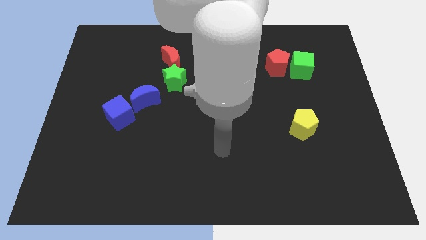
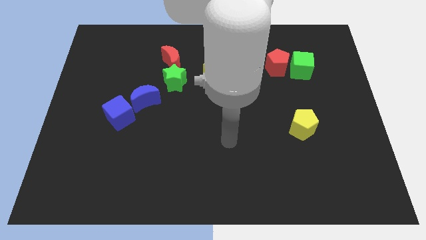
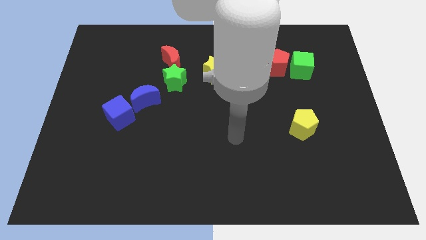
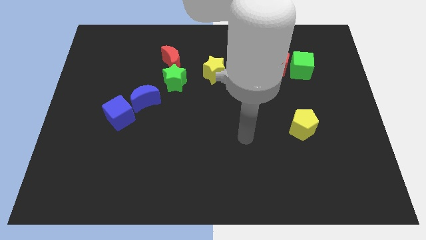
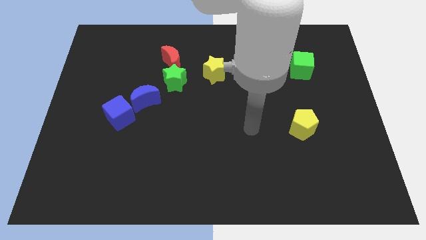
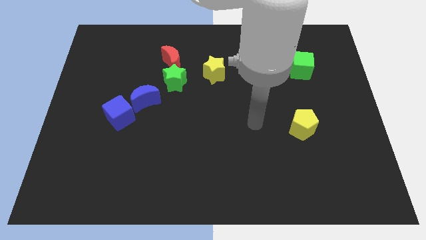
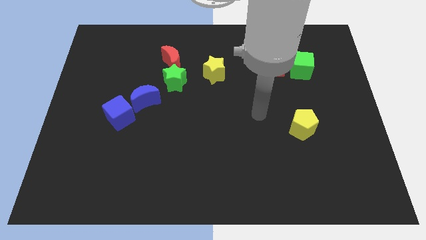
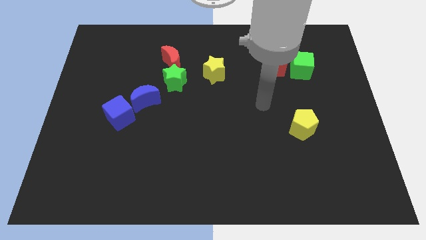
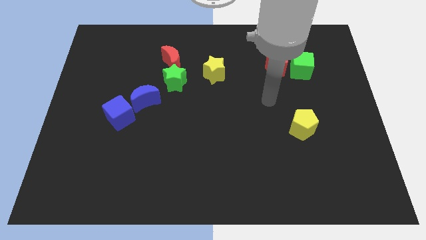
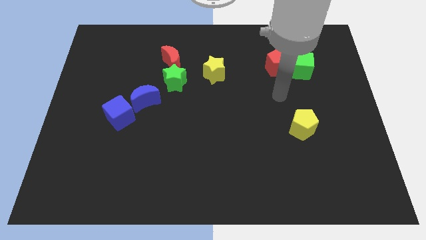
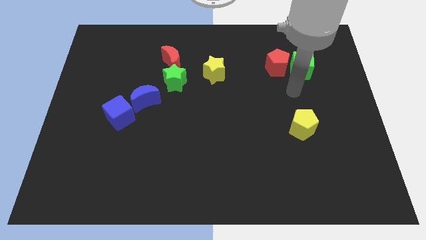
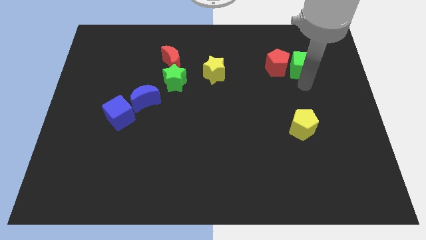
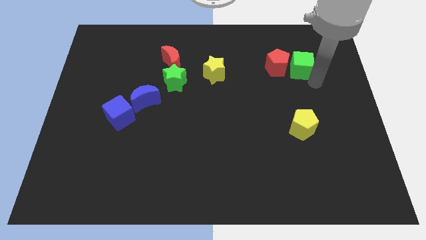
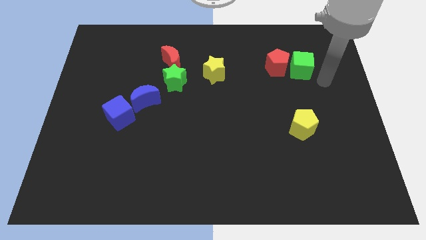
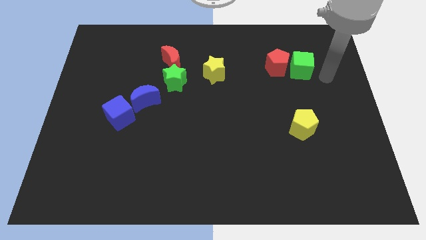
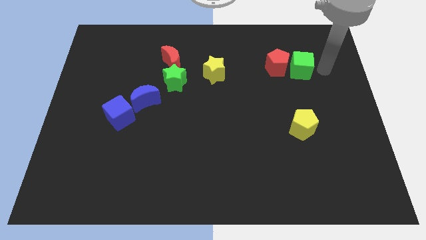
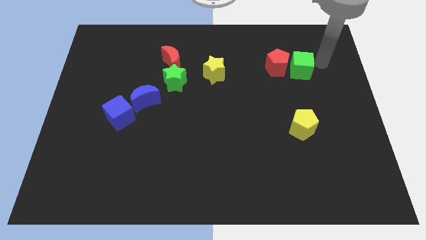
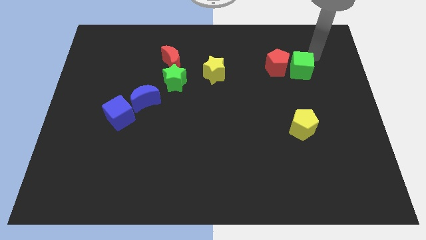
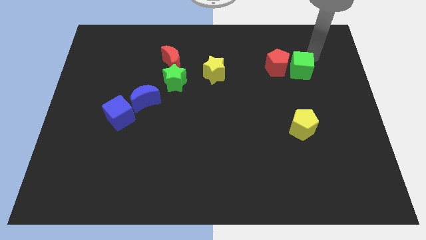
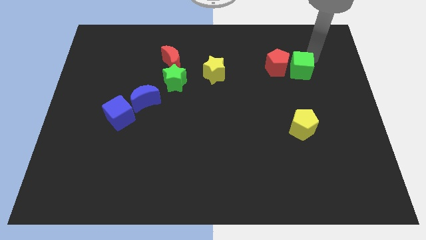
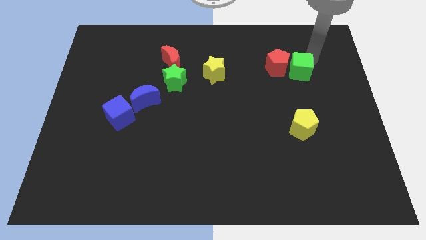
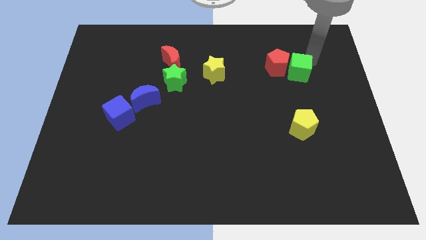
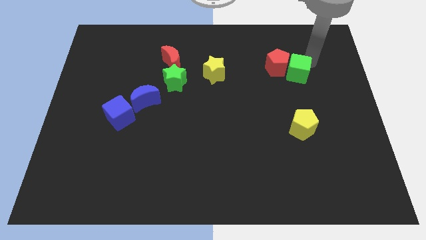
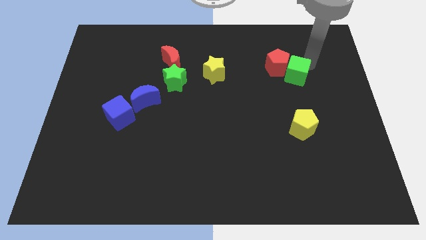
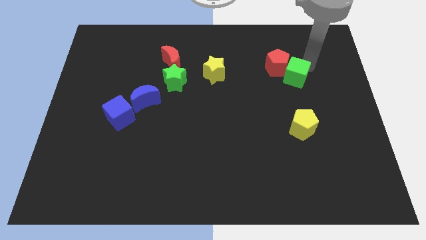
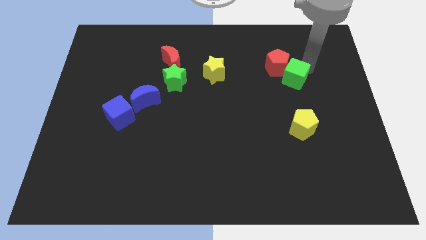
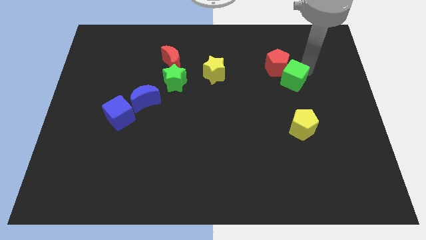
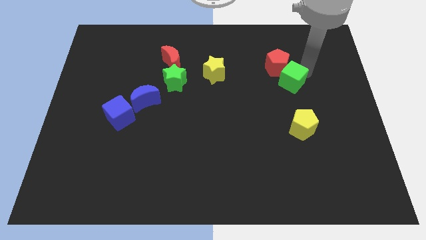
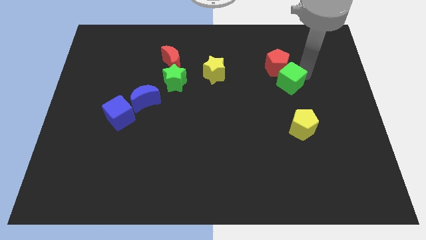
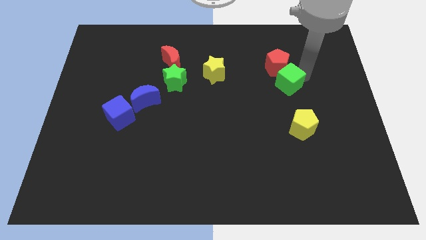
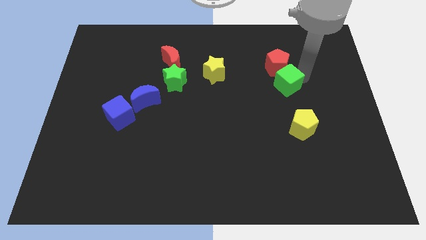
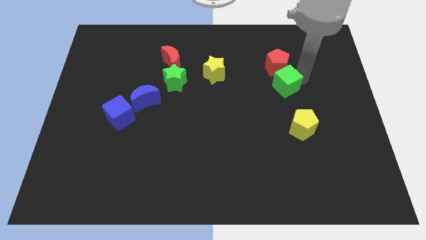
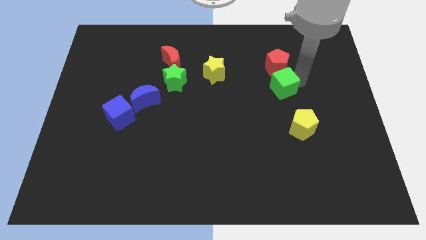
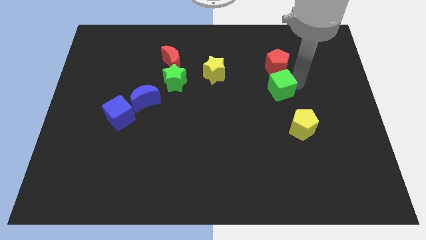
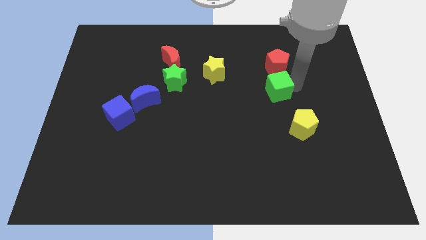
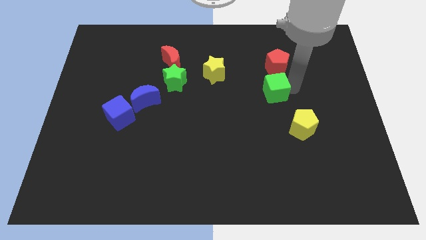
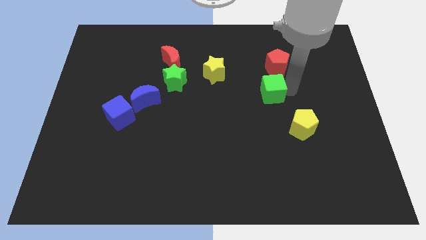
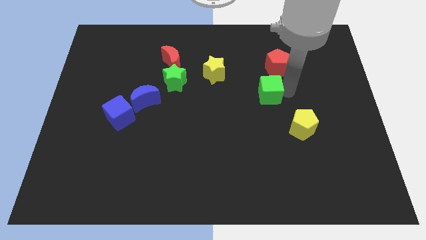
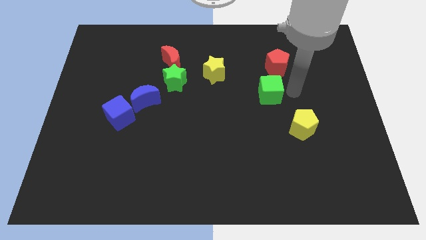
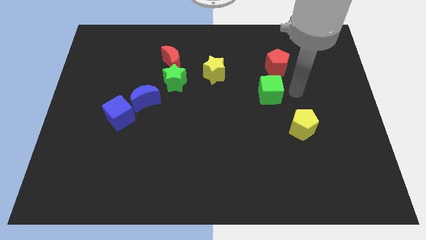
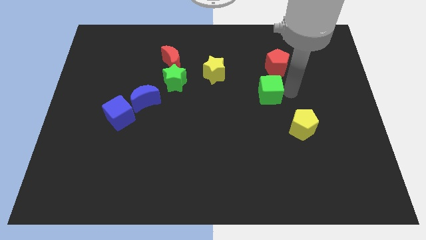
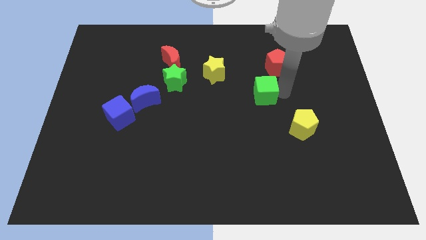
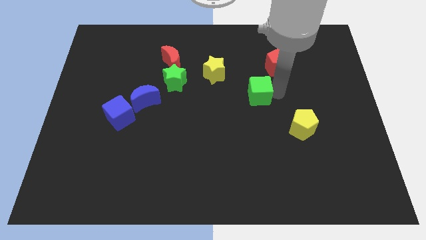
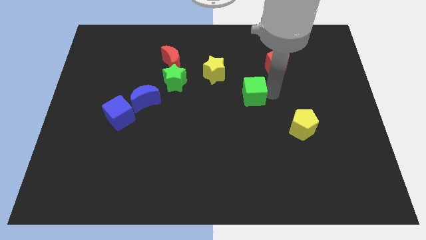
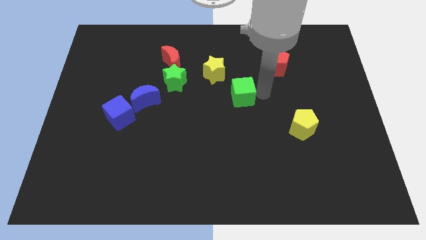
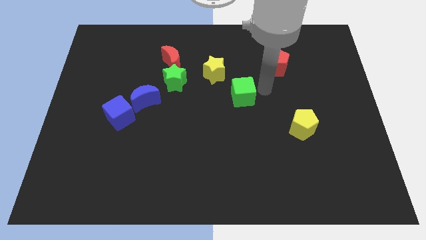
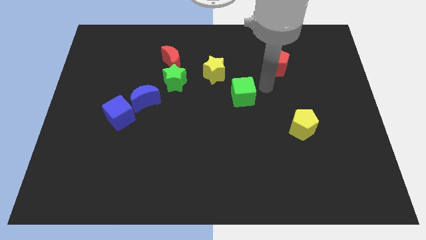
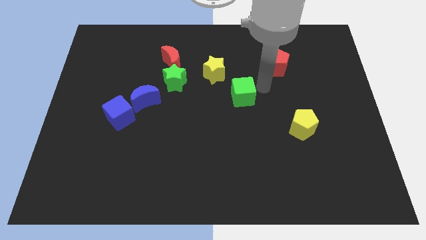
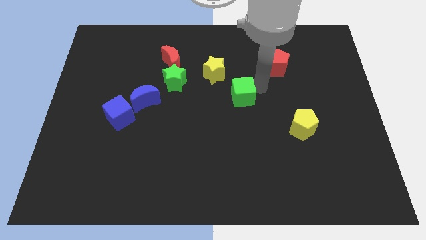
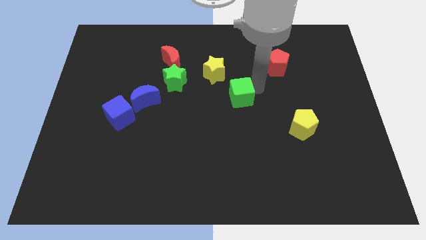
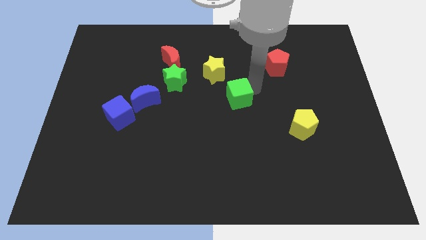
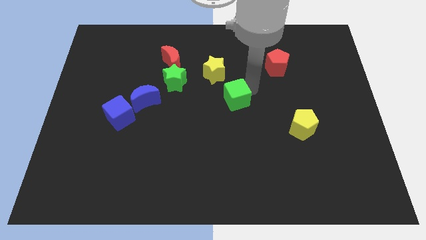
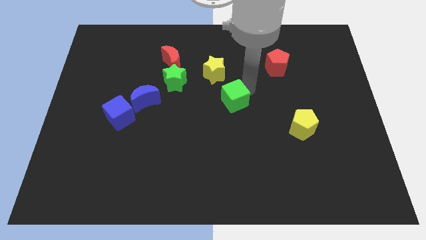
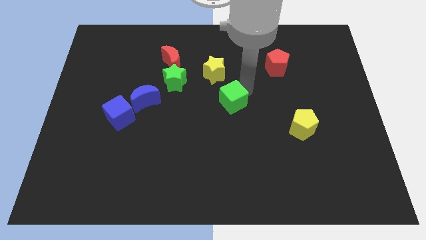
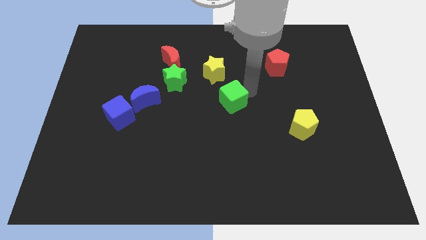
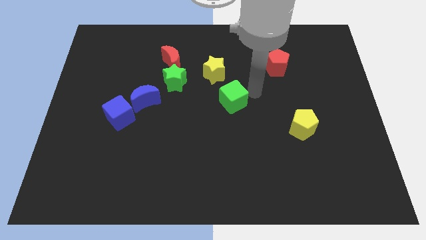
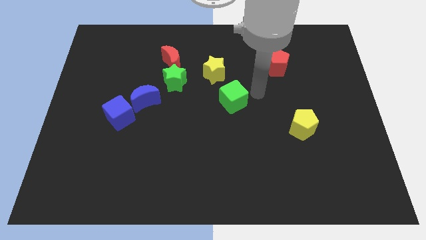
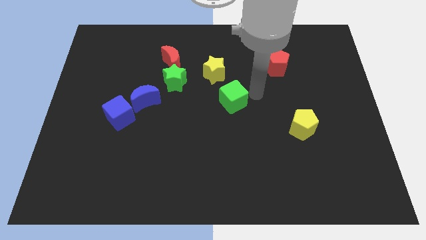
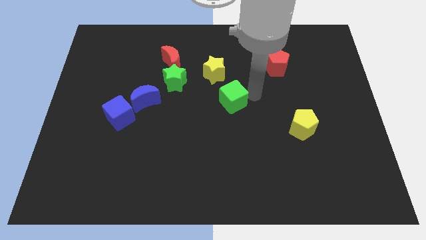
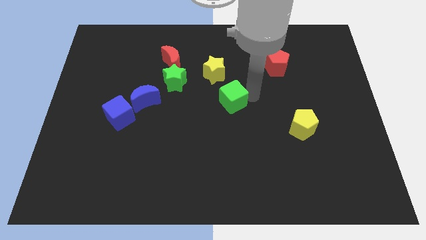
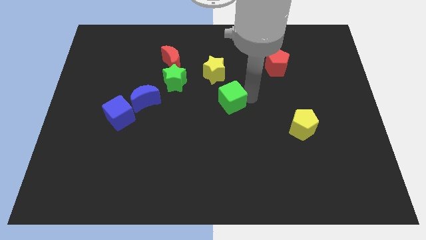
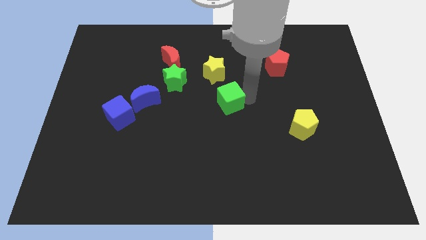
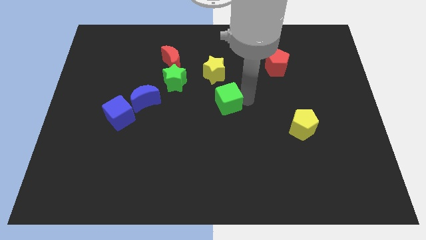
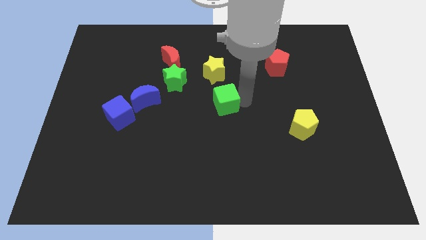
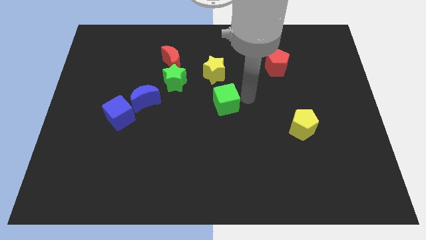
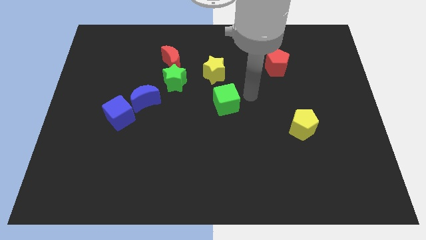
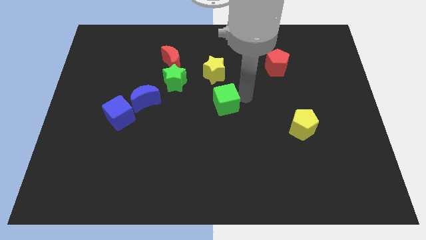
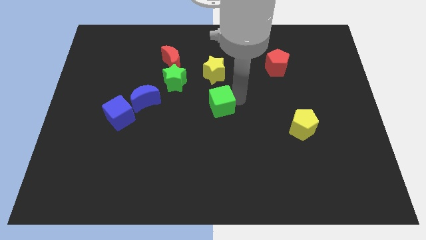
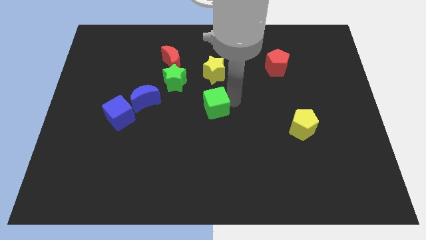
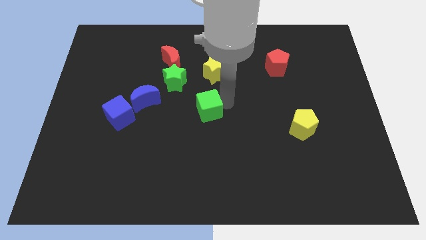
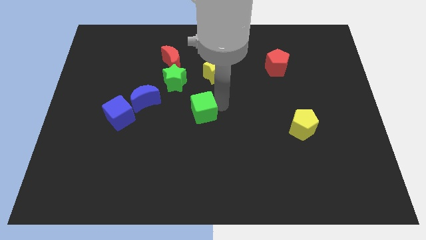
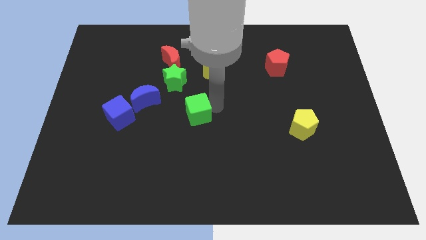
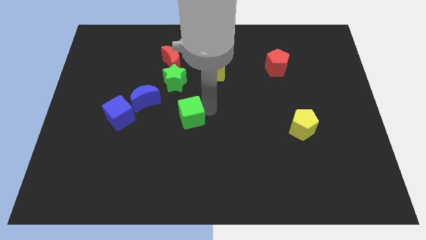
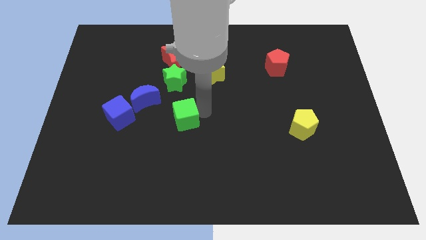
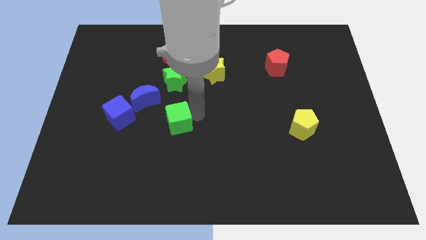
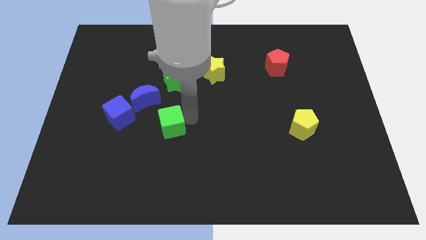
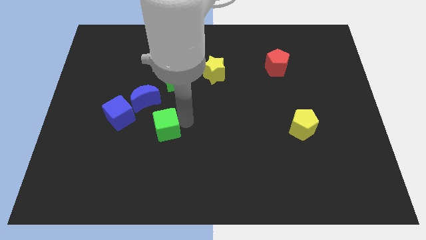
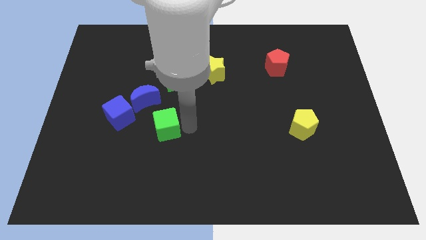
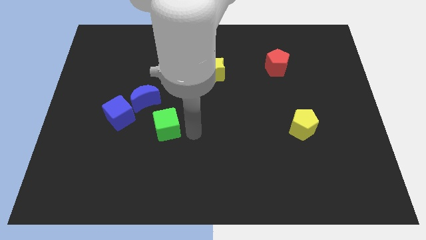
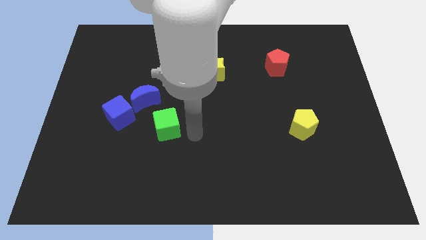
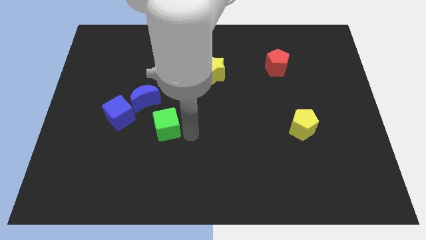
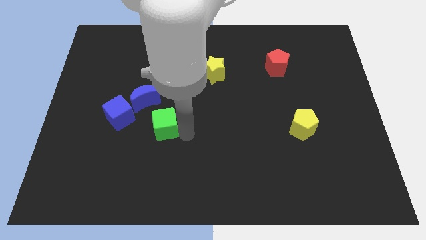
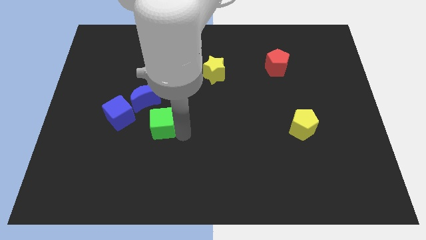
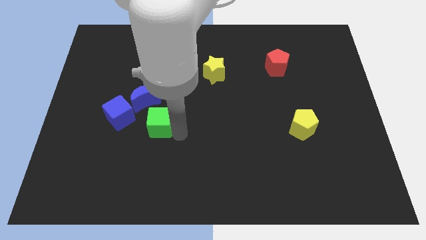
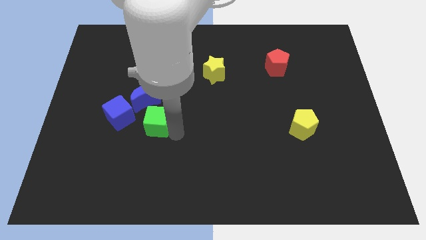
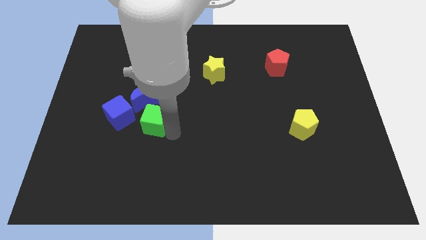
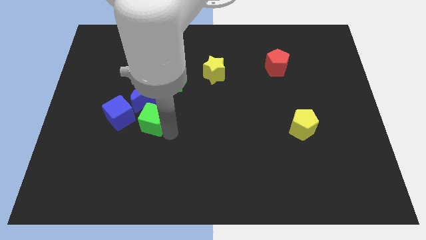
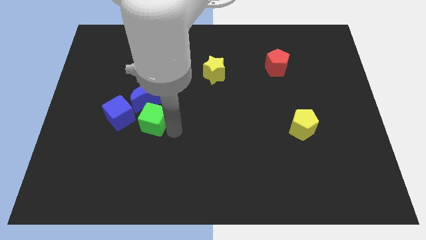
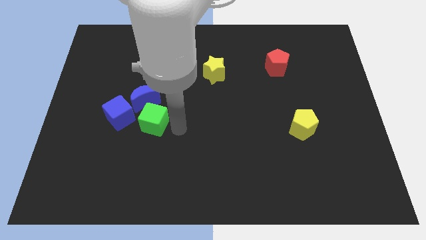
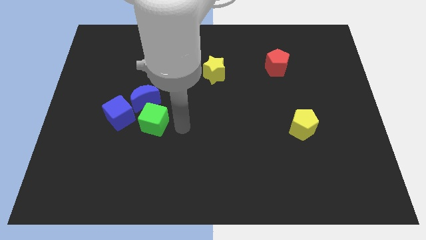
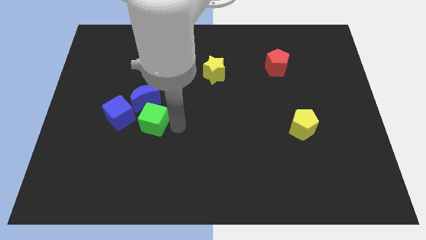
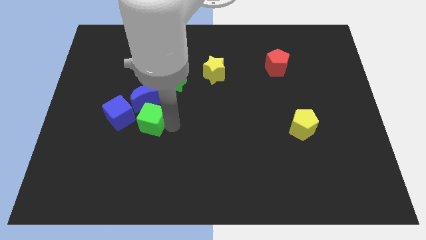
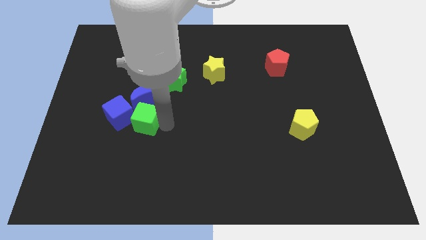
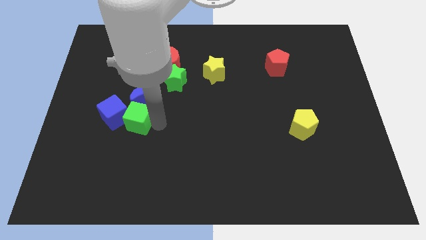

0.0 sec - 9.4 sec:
move the green cube to the blue cube
